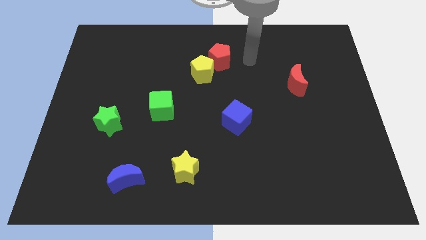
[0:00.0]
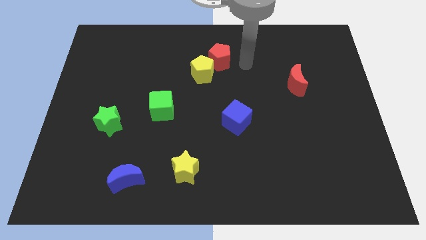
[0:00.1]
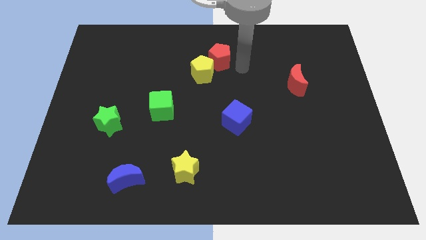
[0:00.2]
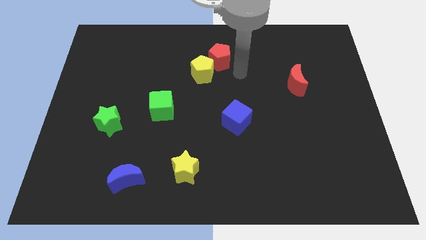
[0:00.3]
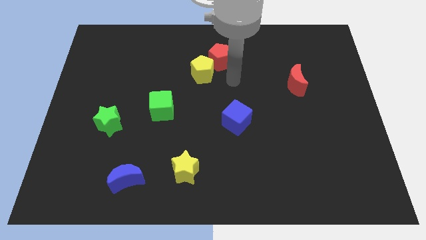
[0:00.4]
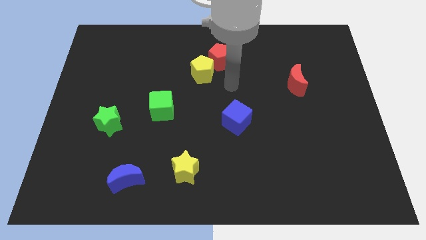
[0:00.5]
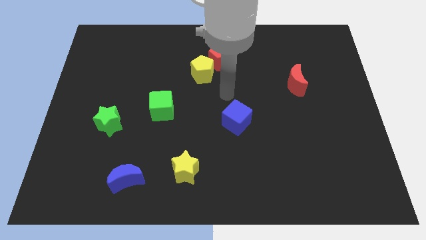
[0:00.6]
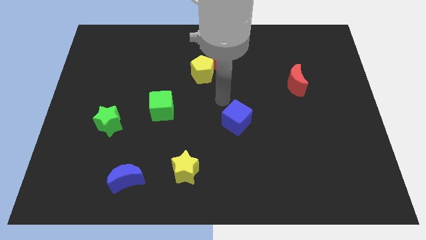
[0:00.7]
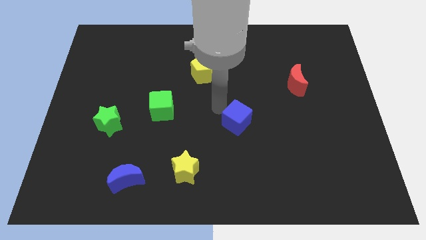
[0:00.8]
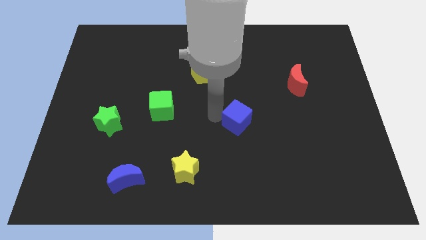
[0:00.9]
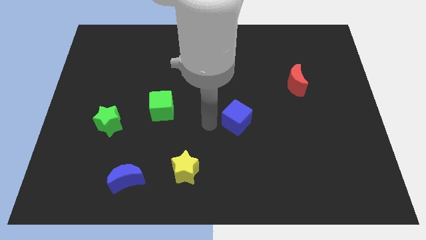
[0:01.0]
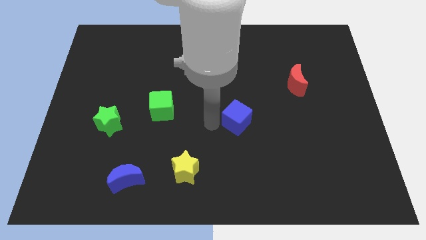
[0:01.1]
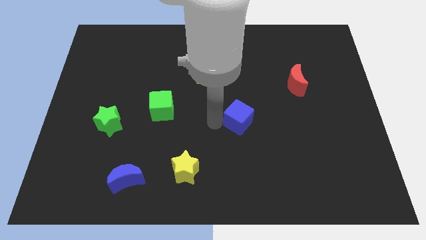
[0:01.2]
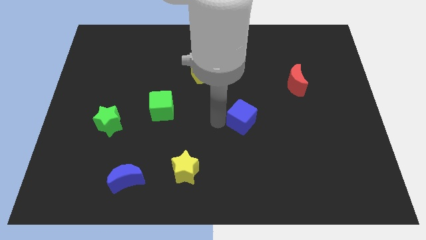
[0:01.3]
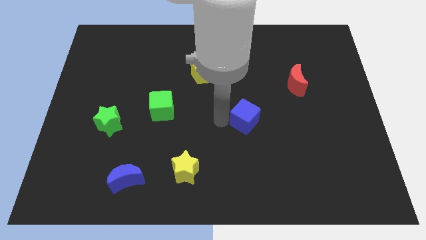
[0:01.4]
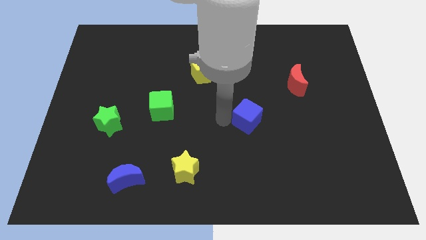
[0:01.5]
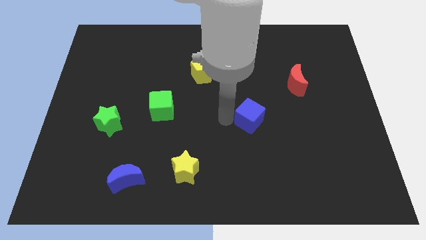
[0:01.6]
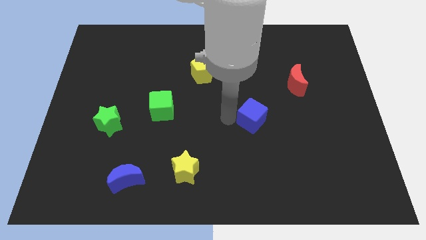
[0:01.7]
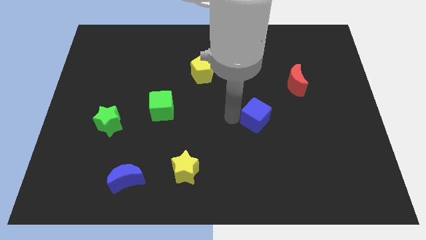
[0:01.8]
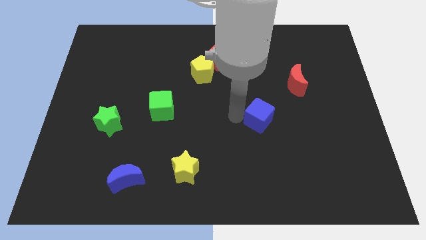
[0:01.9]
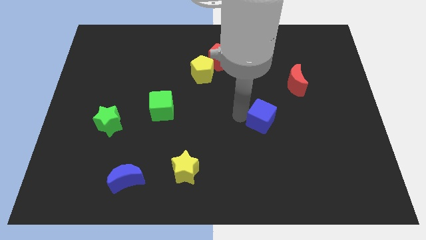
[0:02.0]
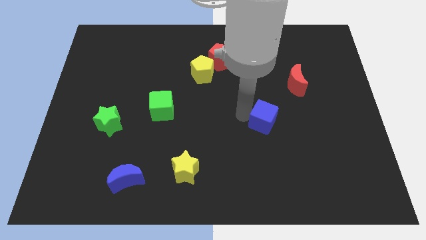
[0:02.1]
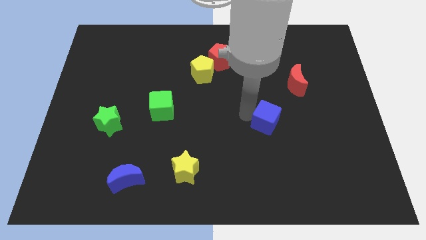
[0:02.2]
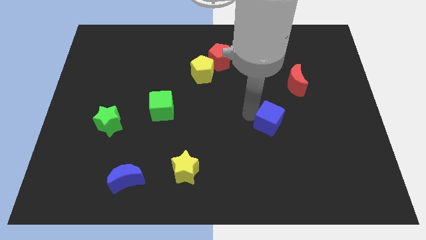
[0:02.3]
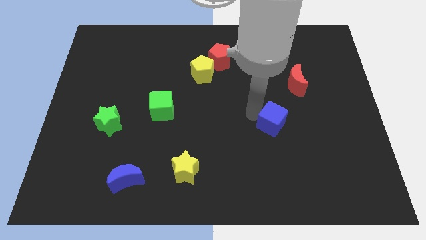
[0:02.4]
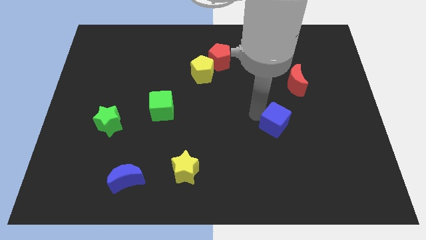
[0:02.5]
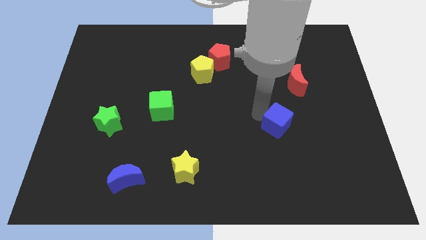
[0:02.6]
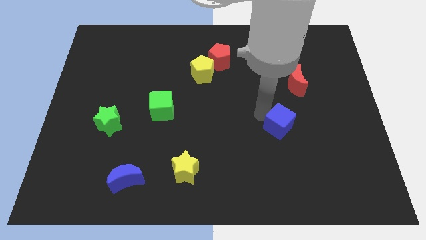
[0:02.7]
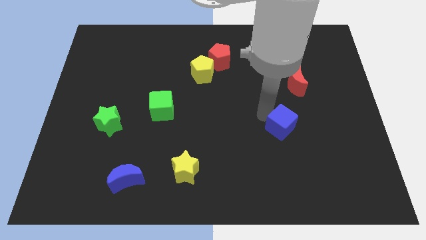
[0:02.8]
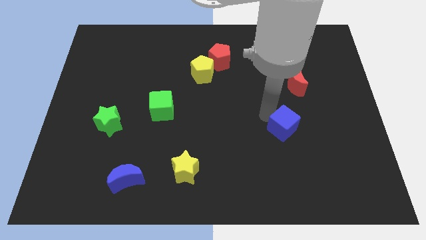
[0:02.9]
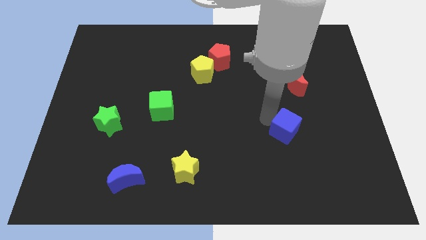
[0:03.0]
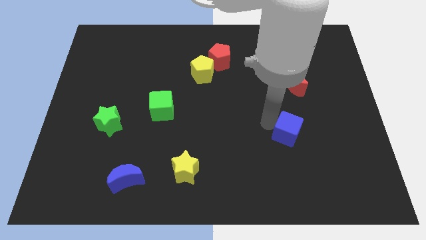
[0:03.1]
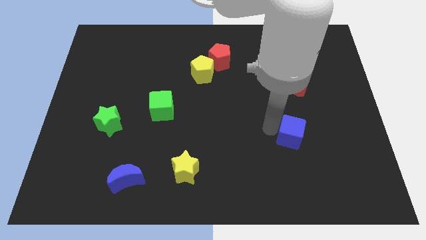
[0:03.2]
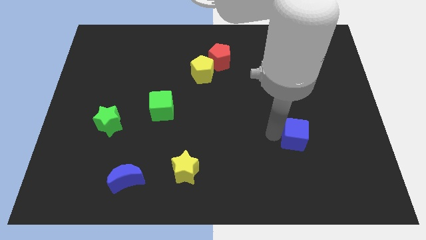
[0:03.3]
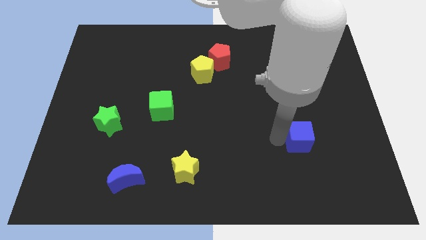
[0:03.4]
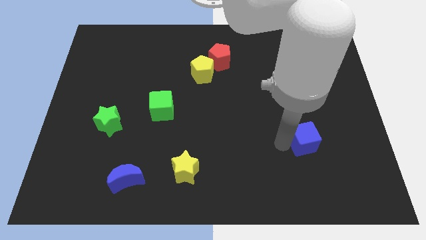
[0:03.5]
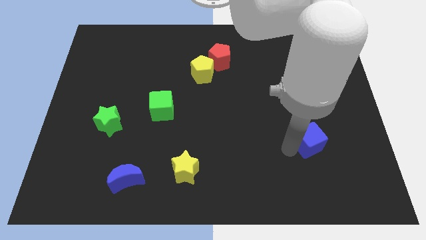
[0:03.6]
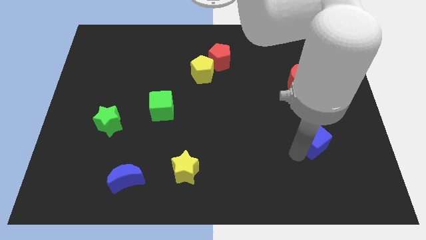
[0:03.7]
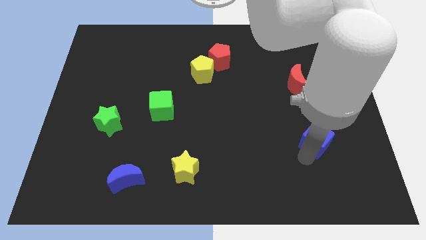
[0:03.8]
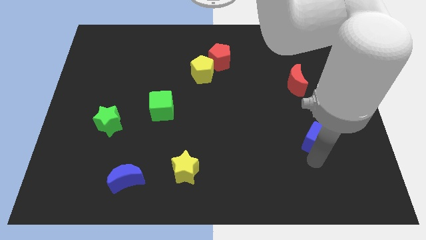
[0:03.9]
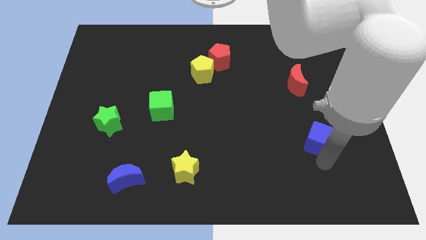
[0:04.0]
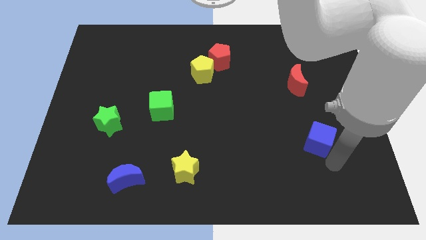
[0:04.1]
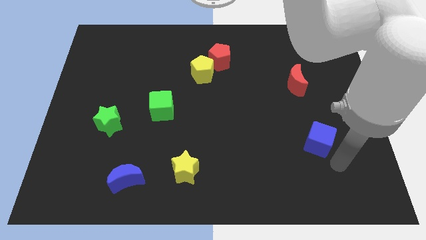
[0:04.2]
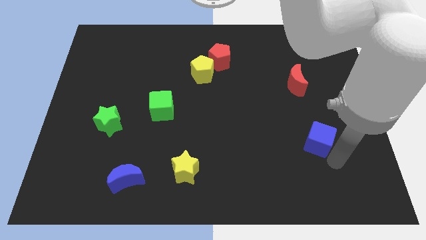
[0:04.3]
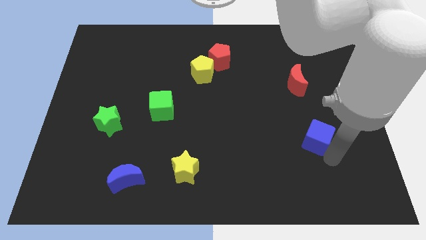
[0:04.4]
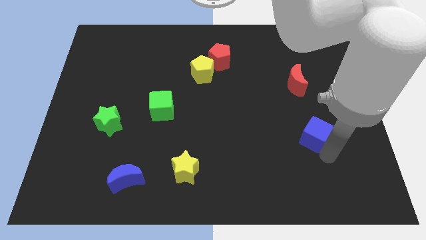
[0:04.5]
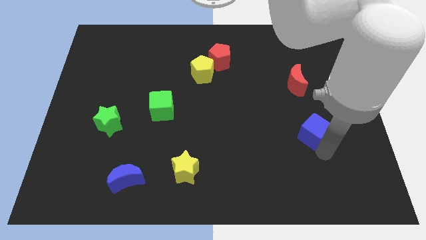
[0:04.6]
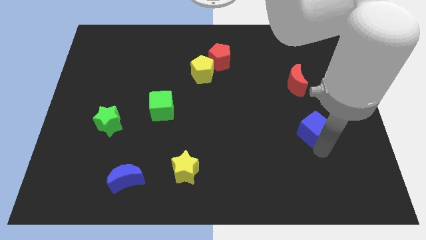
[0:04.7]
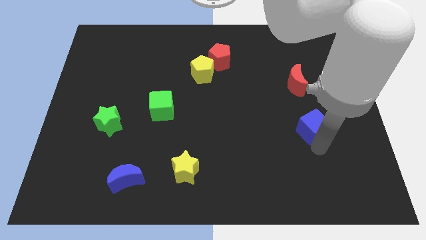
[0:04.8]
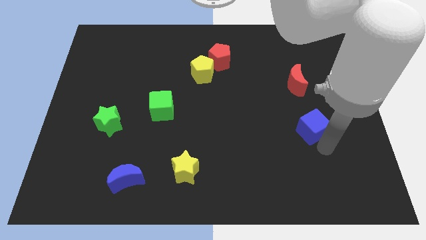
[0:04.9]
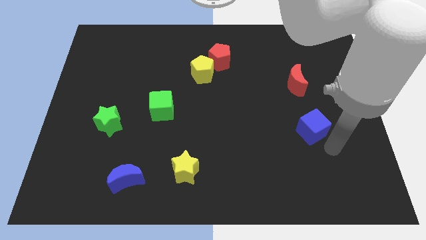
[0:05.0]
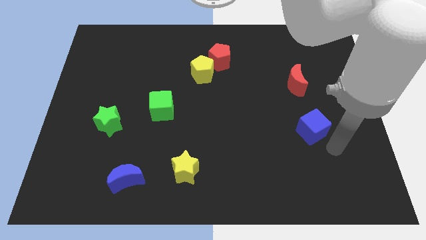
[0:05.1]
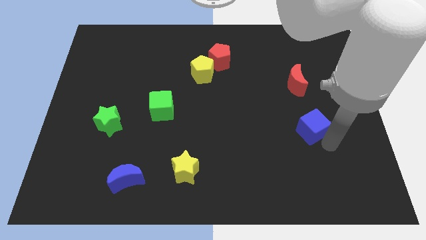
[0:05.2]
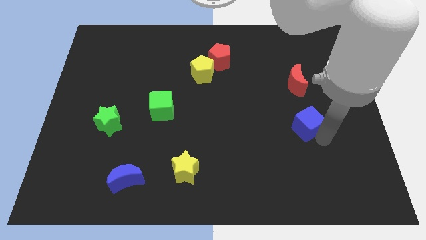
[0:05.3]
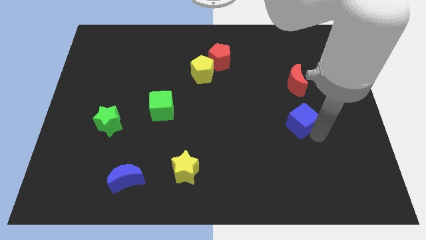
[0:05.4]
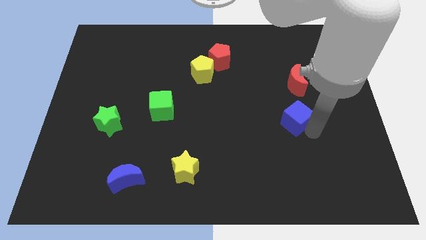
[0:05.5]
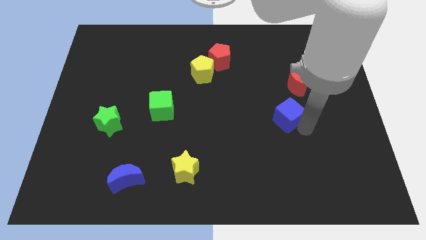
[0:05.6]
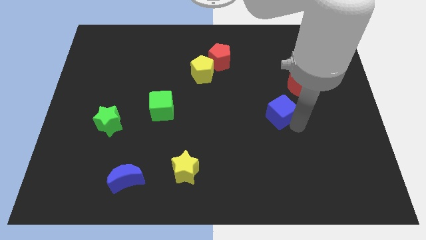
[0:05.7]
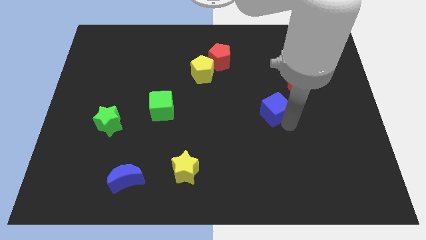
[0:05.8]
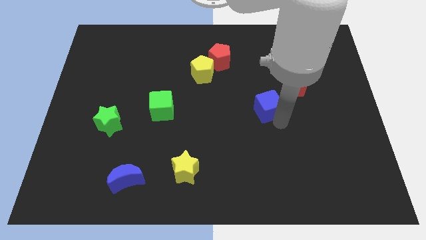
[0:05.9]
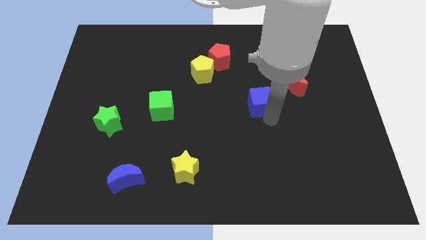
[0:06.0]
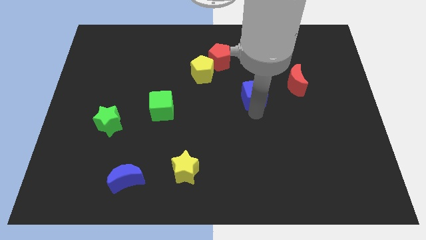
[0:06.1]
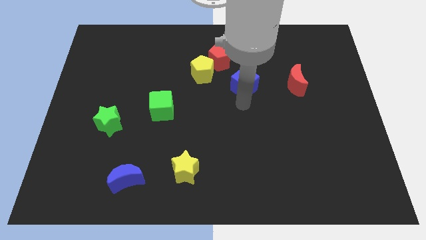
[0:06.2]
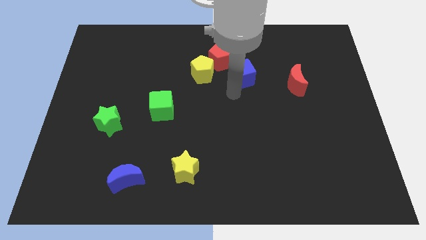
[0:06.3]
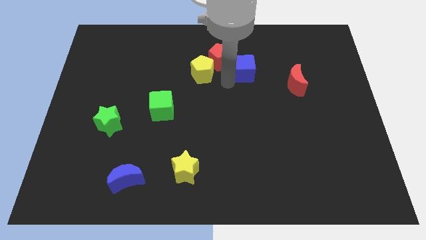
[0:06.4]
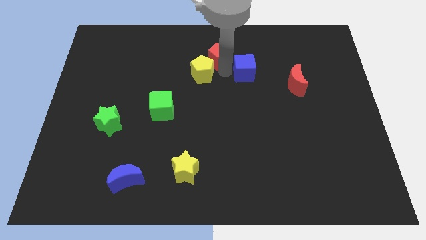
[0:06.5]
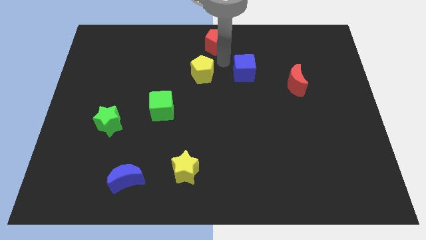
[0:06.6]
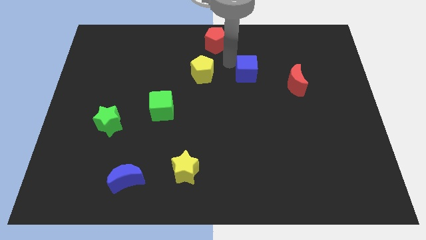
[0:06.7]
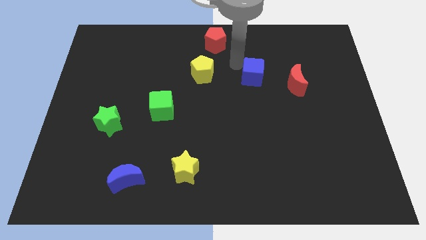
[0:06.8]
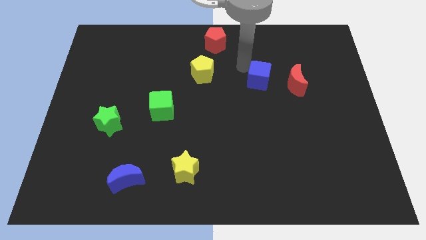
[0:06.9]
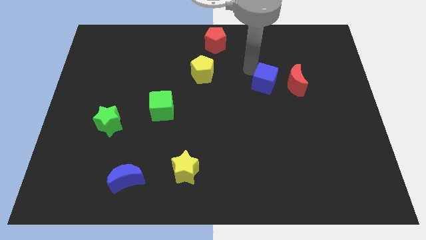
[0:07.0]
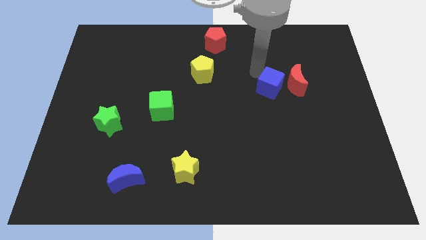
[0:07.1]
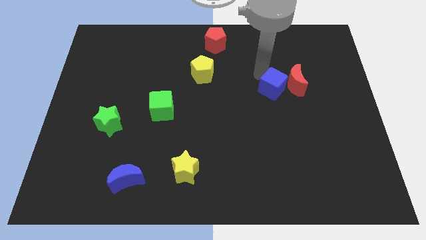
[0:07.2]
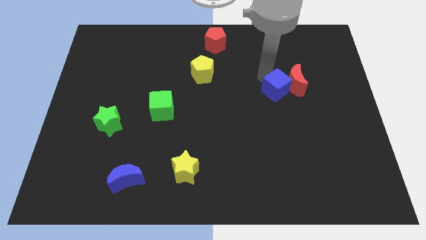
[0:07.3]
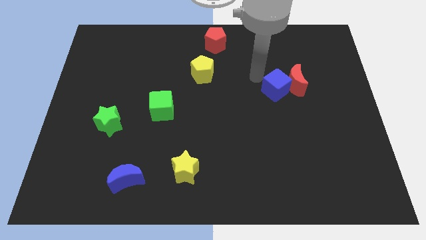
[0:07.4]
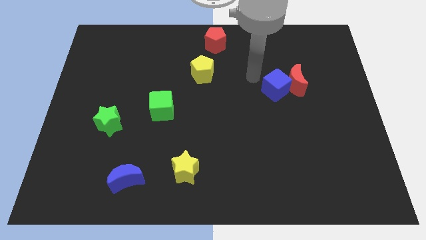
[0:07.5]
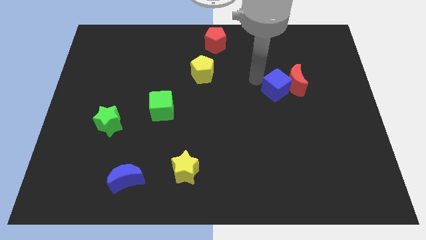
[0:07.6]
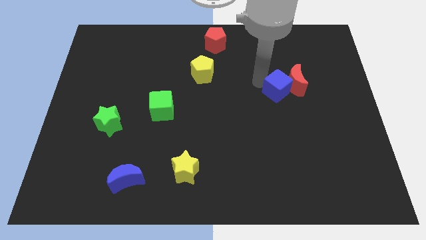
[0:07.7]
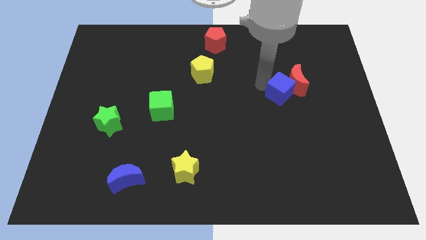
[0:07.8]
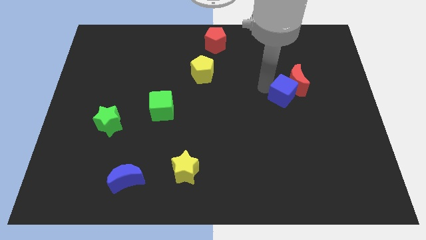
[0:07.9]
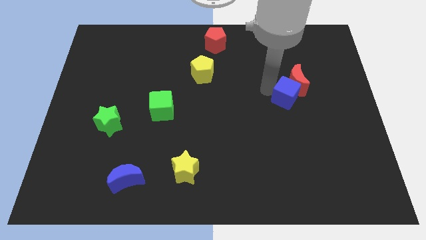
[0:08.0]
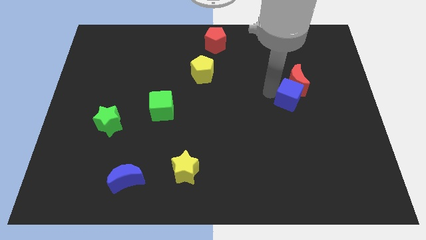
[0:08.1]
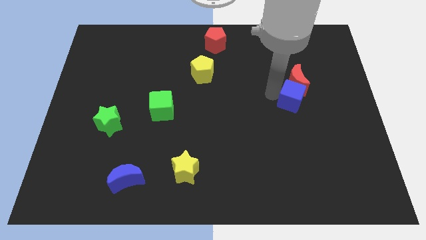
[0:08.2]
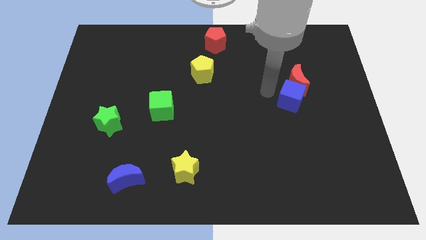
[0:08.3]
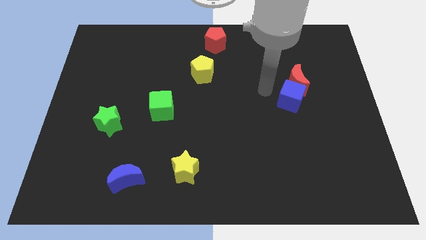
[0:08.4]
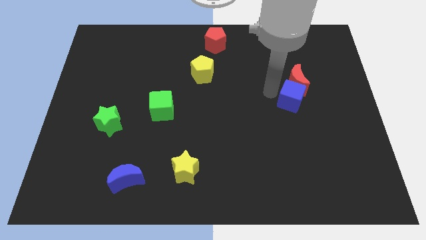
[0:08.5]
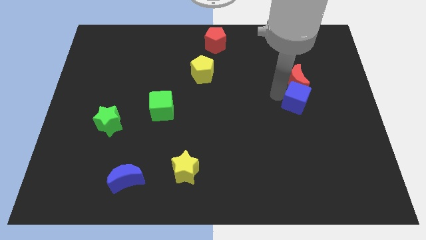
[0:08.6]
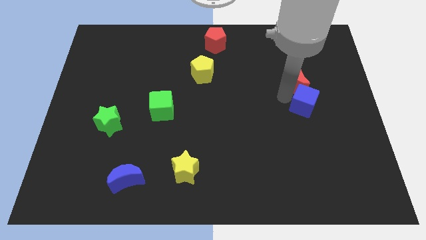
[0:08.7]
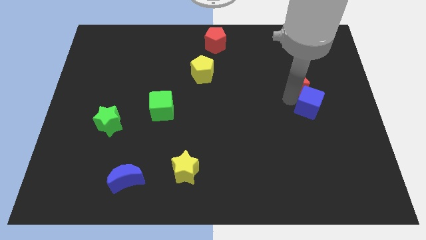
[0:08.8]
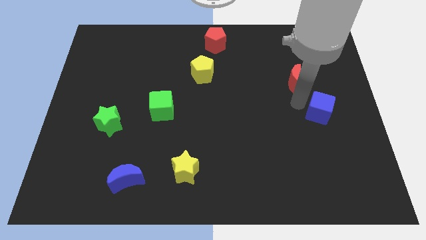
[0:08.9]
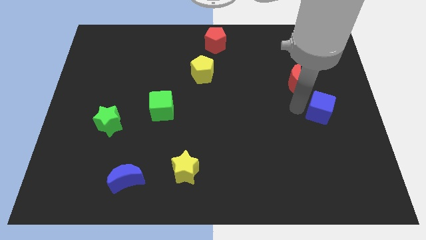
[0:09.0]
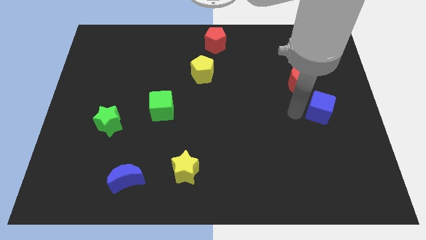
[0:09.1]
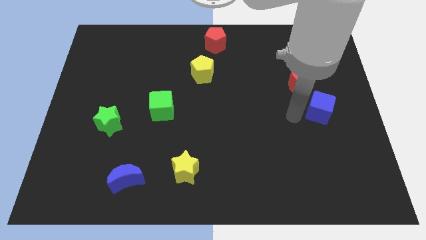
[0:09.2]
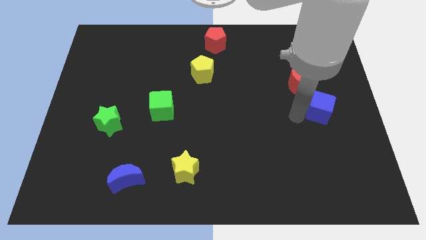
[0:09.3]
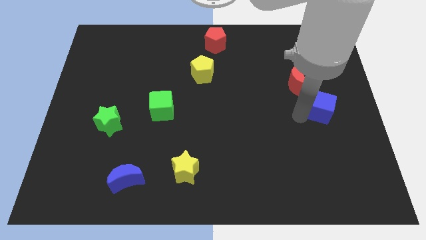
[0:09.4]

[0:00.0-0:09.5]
slide the blue cube to the center right
